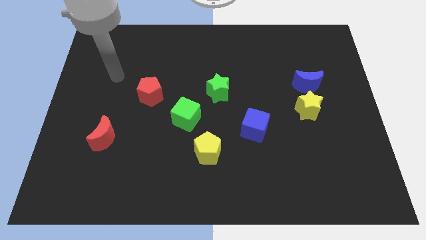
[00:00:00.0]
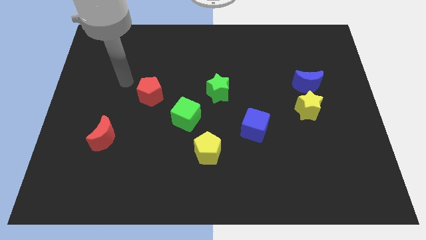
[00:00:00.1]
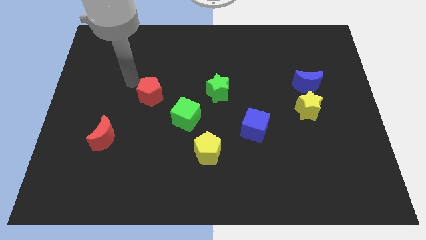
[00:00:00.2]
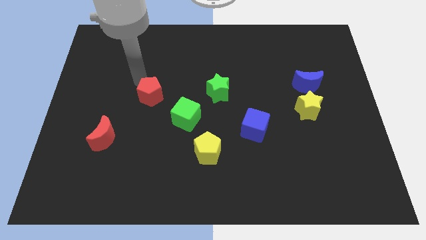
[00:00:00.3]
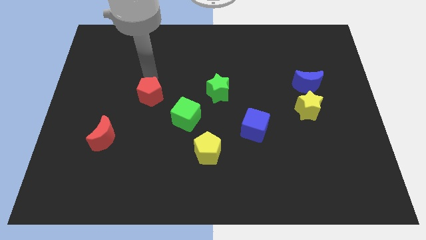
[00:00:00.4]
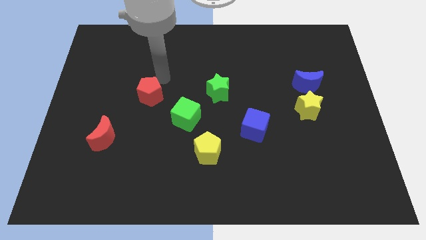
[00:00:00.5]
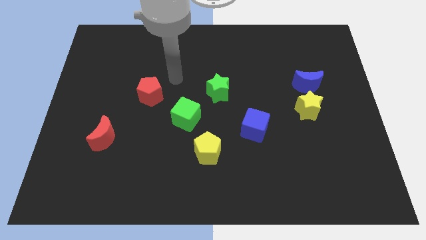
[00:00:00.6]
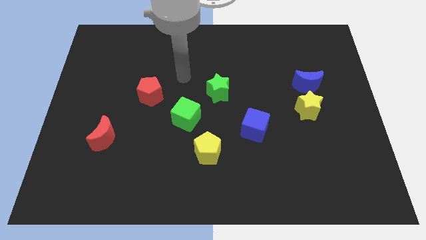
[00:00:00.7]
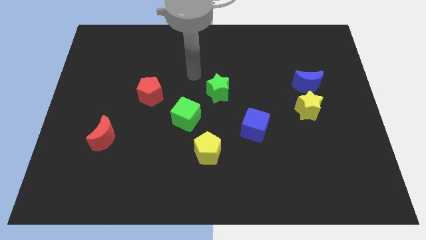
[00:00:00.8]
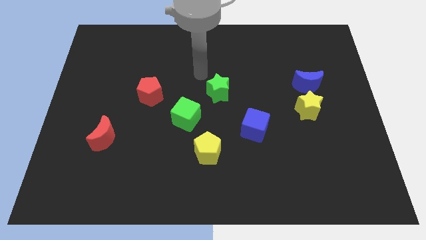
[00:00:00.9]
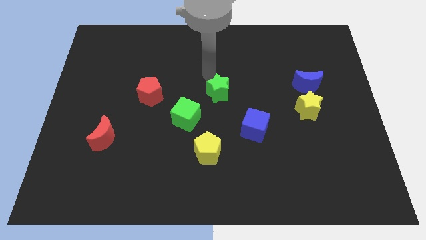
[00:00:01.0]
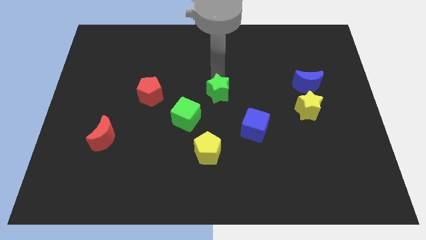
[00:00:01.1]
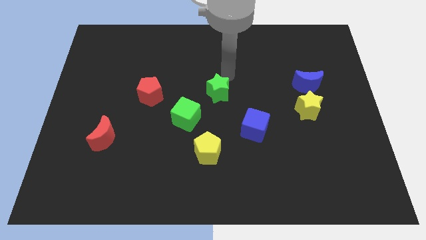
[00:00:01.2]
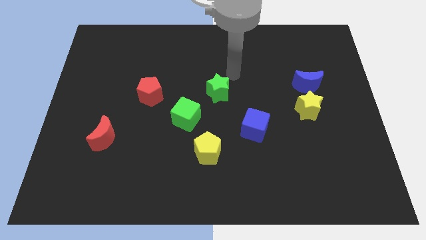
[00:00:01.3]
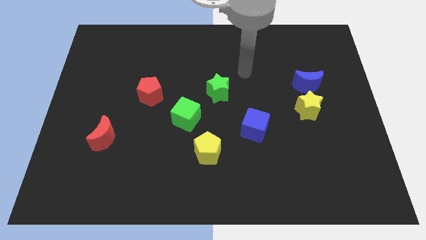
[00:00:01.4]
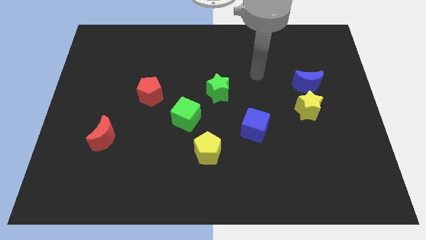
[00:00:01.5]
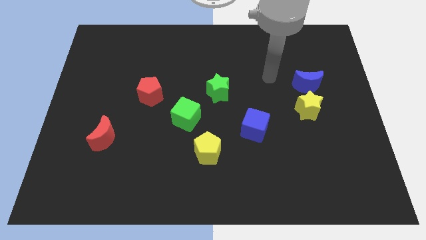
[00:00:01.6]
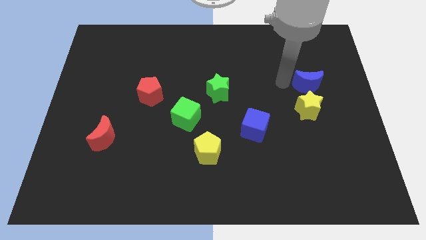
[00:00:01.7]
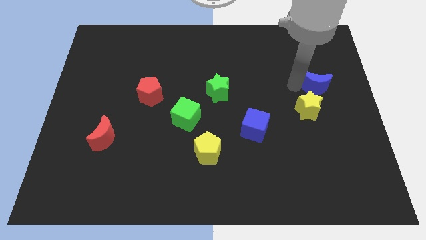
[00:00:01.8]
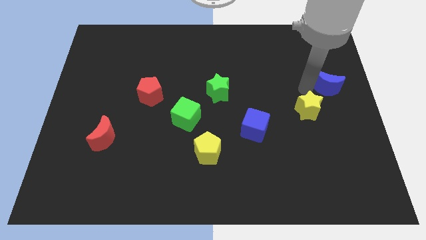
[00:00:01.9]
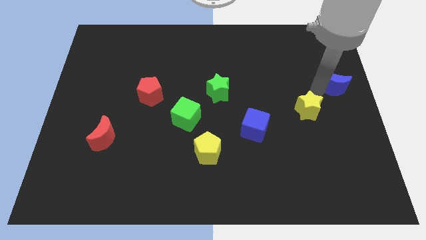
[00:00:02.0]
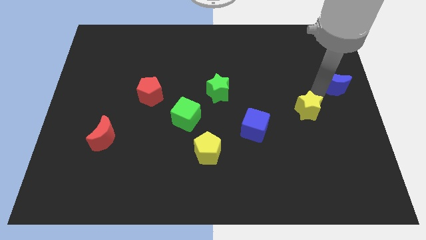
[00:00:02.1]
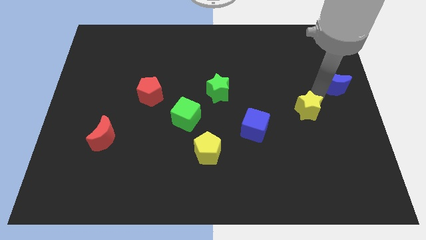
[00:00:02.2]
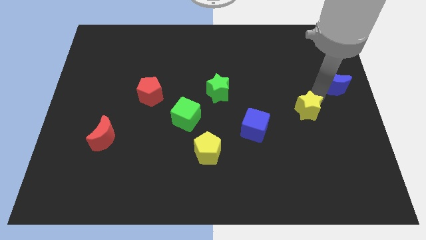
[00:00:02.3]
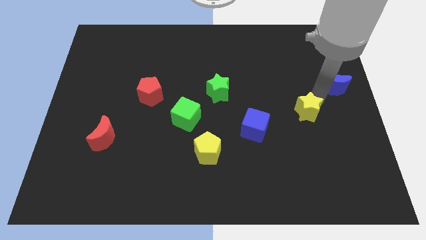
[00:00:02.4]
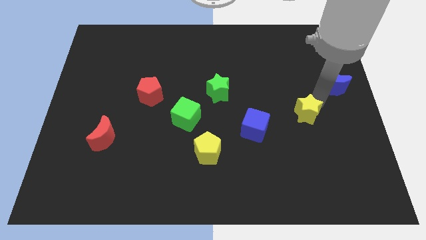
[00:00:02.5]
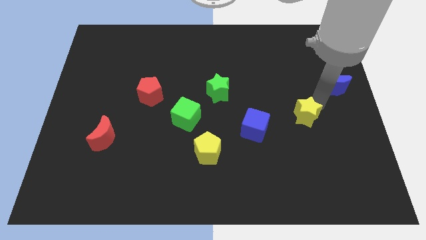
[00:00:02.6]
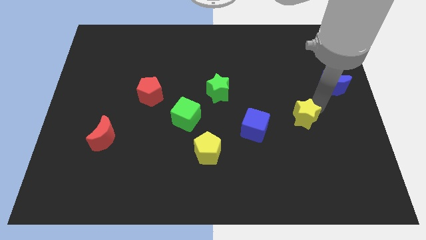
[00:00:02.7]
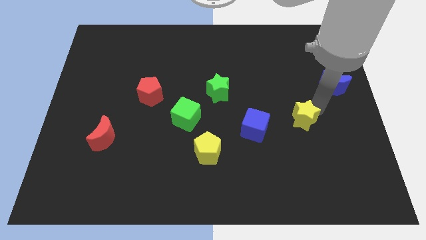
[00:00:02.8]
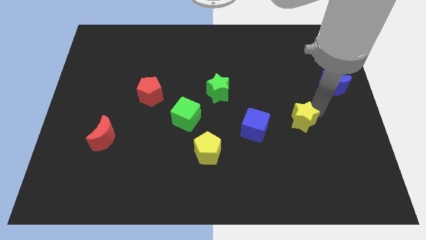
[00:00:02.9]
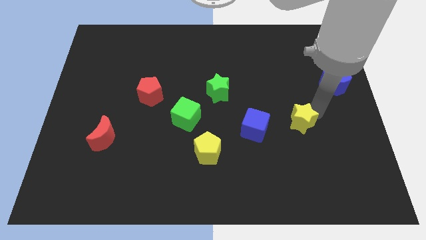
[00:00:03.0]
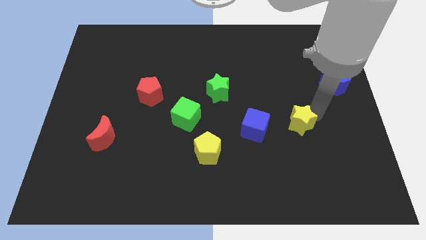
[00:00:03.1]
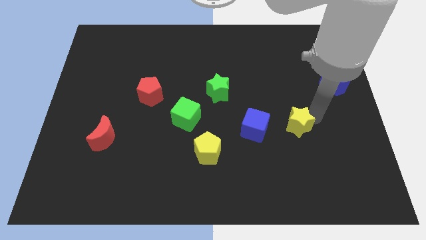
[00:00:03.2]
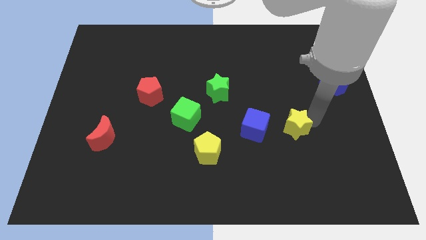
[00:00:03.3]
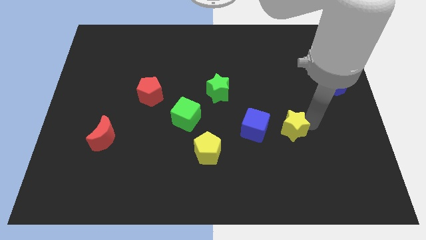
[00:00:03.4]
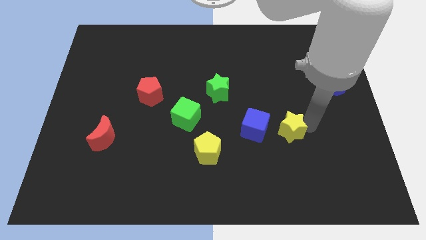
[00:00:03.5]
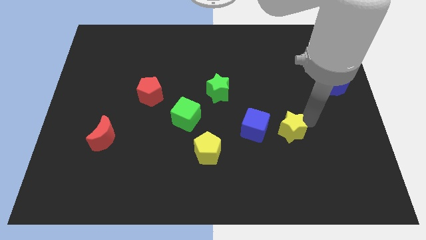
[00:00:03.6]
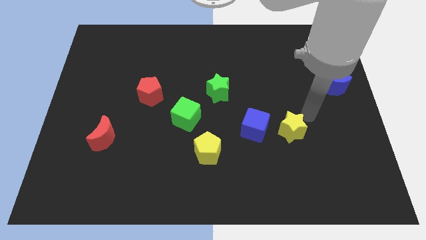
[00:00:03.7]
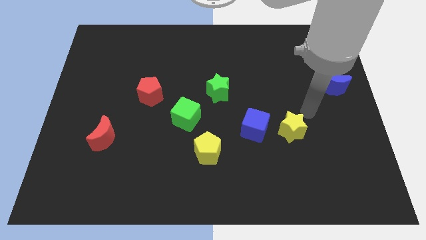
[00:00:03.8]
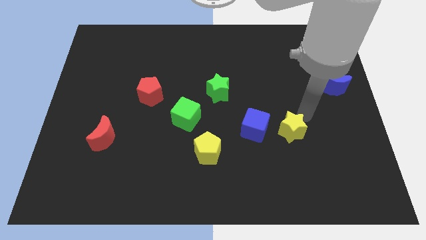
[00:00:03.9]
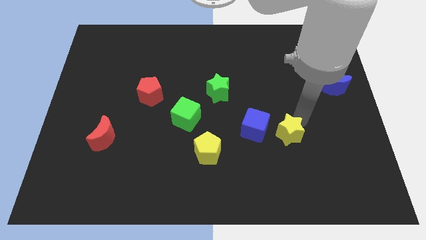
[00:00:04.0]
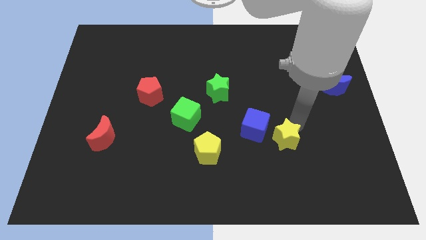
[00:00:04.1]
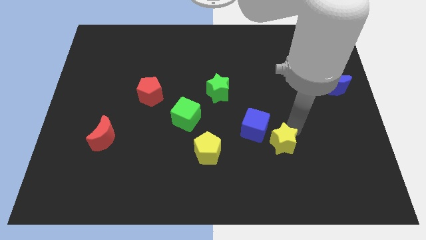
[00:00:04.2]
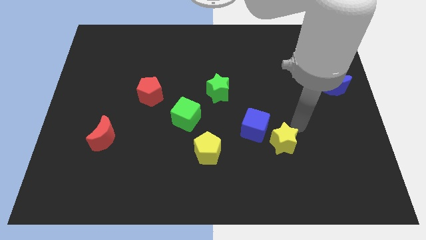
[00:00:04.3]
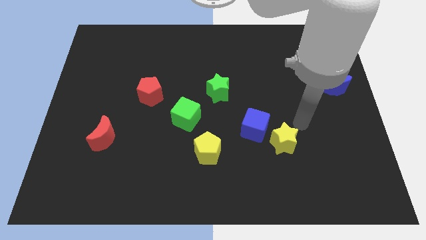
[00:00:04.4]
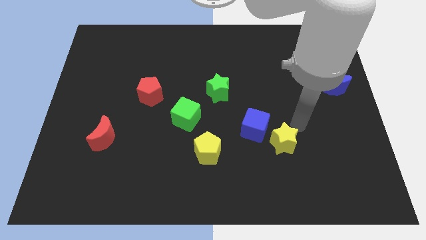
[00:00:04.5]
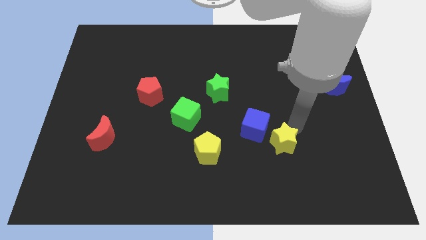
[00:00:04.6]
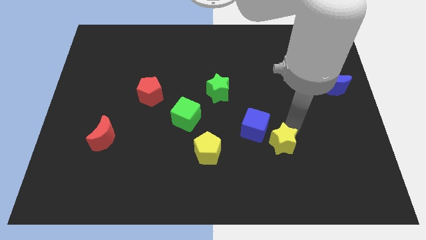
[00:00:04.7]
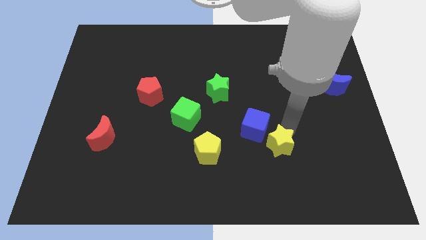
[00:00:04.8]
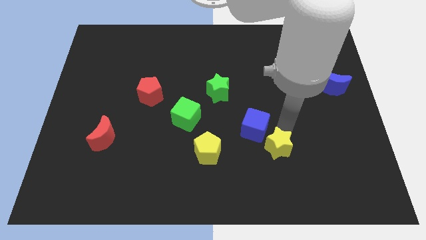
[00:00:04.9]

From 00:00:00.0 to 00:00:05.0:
slide the yellow star to the bottom of the blue cube

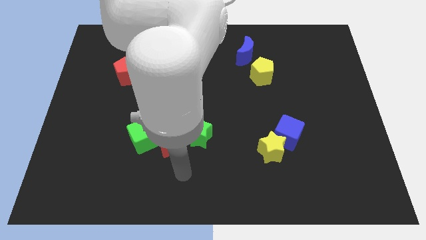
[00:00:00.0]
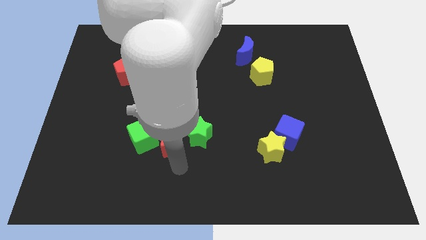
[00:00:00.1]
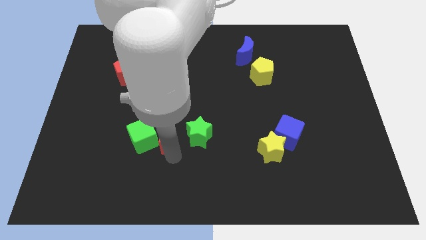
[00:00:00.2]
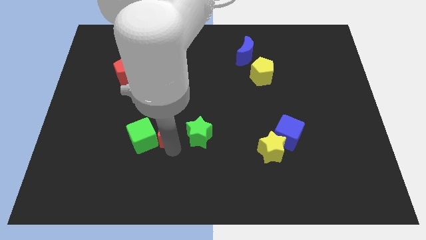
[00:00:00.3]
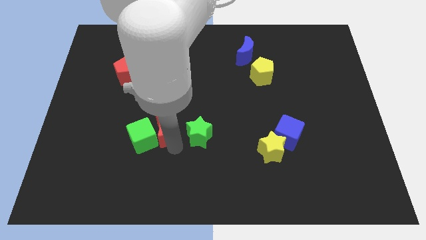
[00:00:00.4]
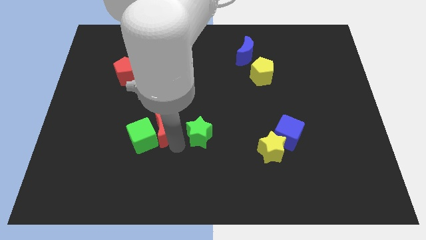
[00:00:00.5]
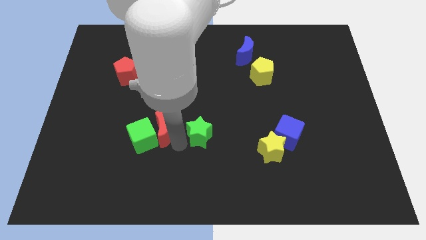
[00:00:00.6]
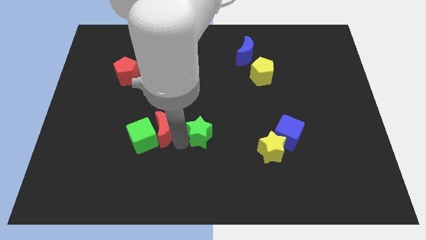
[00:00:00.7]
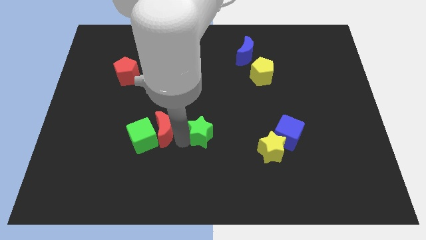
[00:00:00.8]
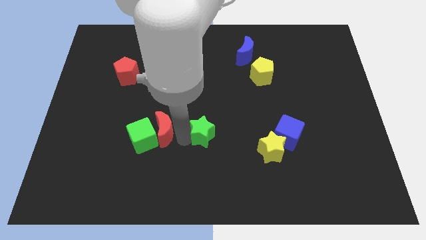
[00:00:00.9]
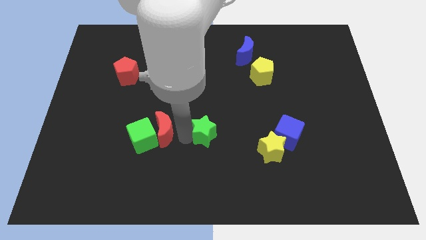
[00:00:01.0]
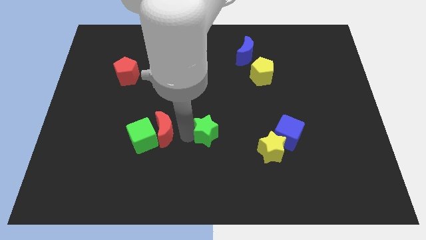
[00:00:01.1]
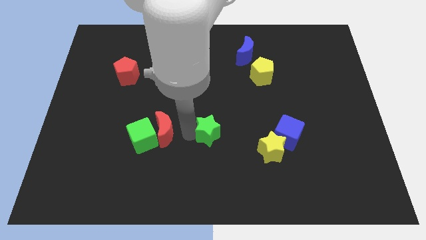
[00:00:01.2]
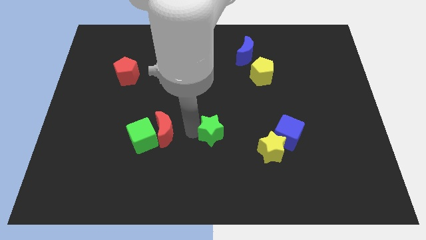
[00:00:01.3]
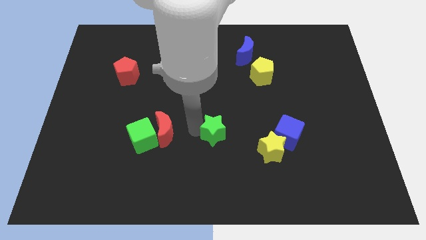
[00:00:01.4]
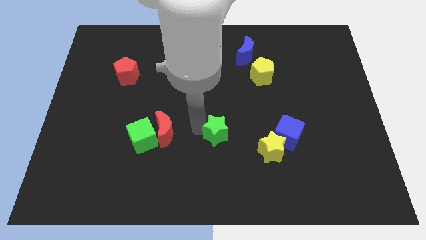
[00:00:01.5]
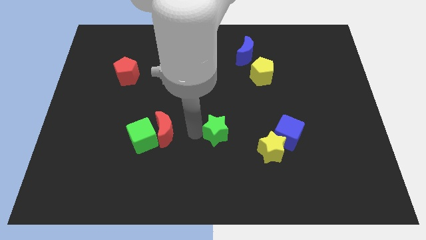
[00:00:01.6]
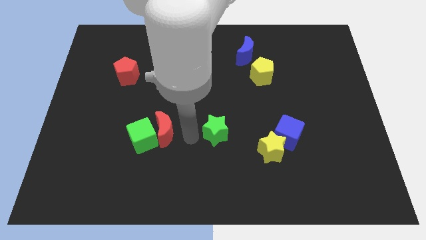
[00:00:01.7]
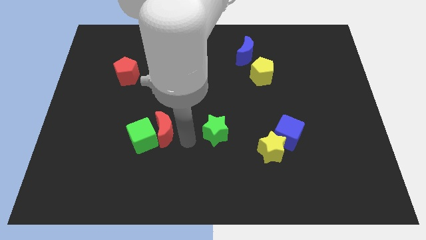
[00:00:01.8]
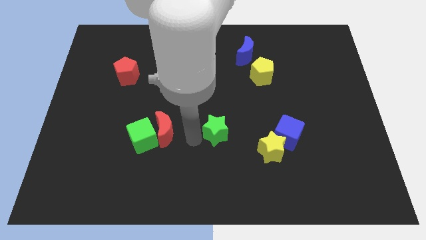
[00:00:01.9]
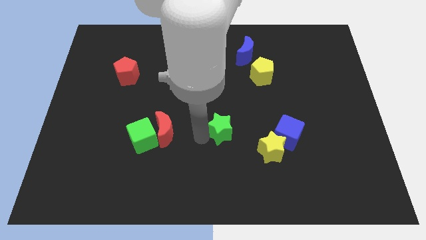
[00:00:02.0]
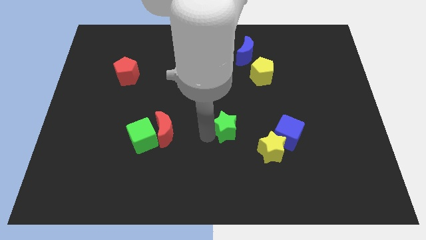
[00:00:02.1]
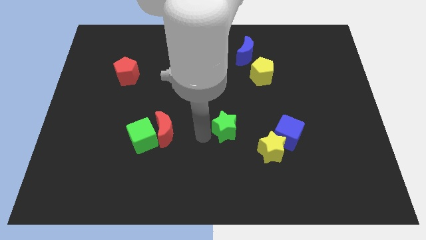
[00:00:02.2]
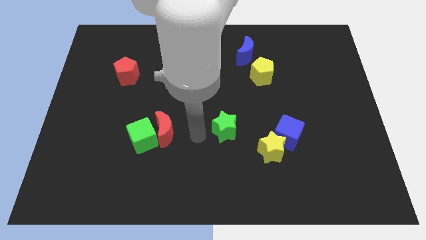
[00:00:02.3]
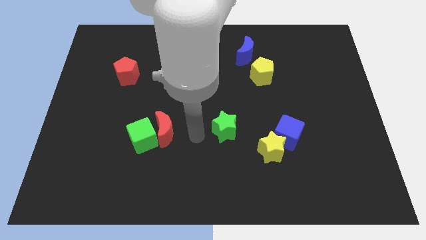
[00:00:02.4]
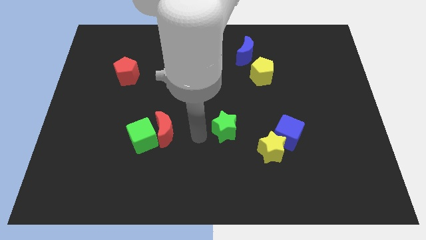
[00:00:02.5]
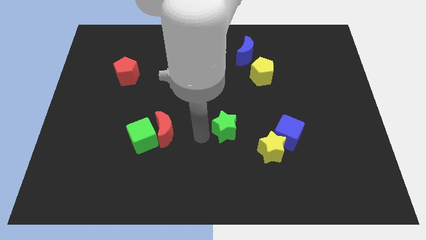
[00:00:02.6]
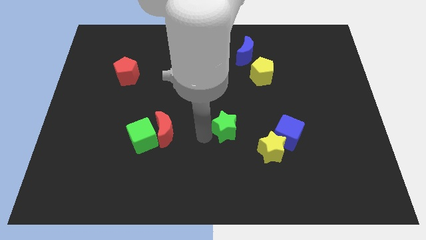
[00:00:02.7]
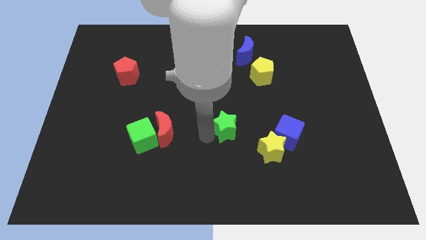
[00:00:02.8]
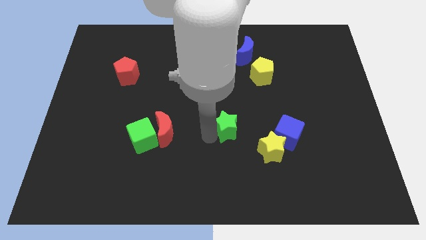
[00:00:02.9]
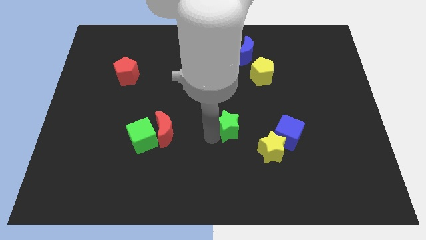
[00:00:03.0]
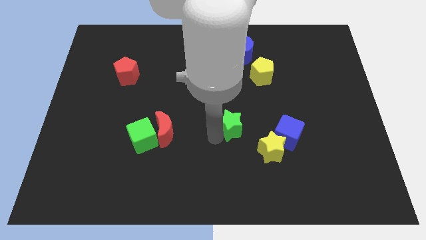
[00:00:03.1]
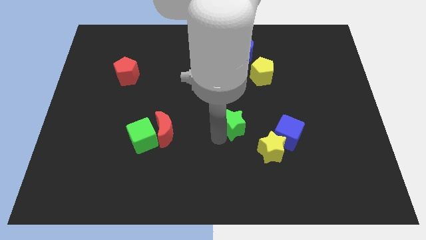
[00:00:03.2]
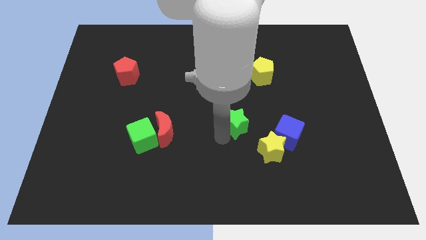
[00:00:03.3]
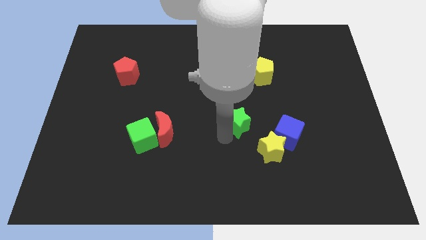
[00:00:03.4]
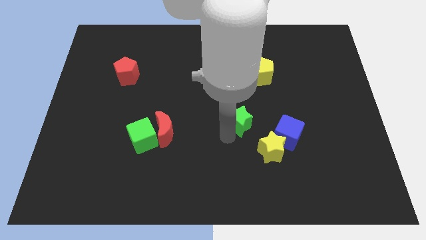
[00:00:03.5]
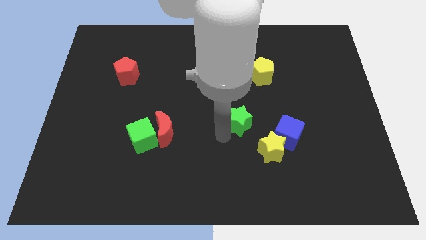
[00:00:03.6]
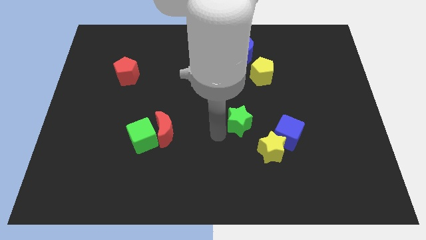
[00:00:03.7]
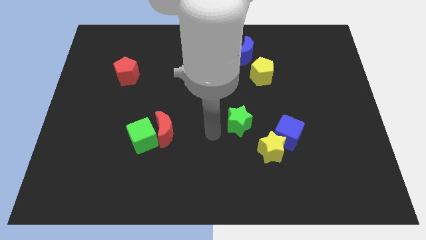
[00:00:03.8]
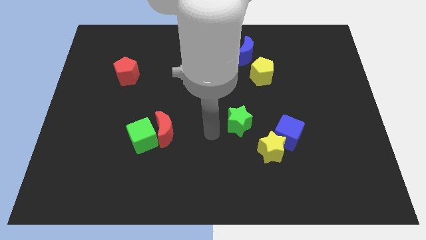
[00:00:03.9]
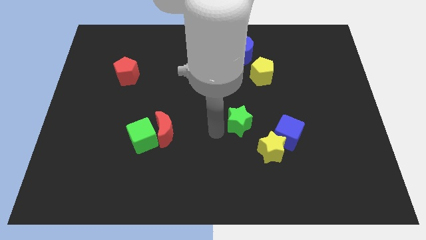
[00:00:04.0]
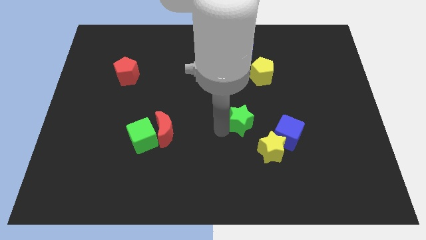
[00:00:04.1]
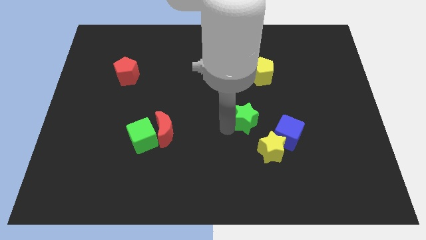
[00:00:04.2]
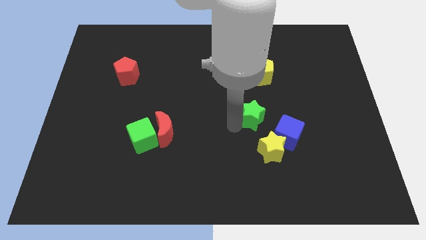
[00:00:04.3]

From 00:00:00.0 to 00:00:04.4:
put the green star to the top of the yellow star
